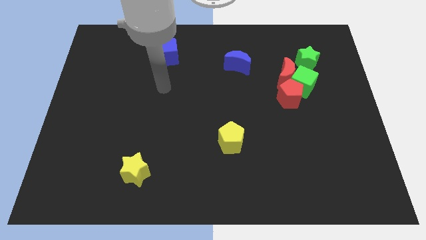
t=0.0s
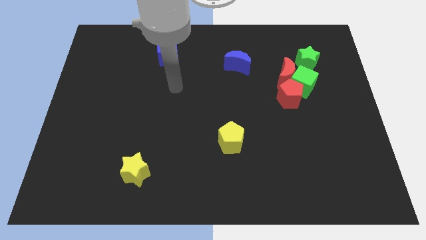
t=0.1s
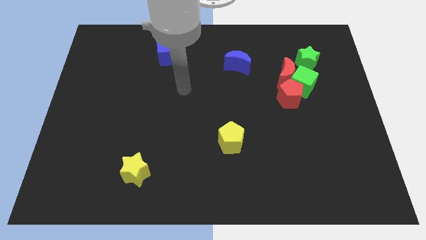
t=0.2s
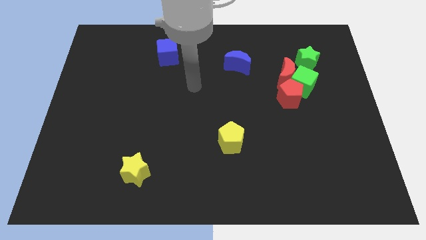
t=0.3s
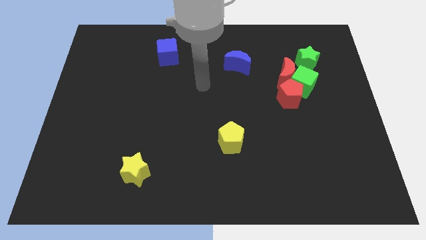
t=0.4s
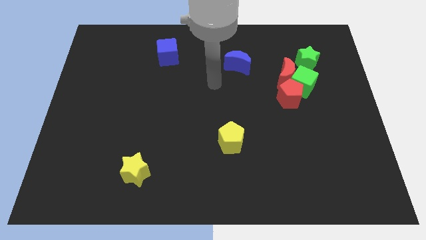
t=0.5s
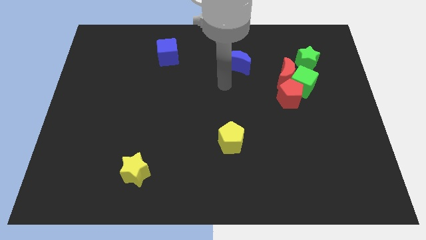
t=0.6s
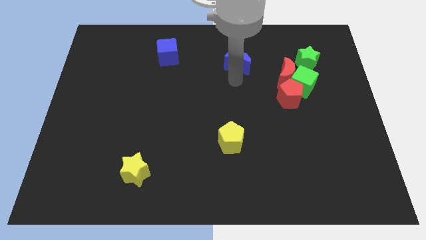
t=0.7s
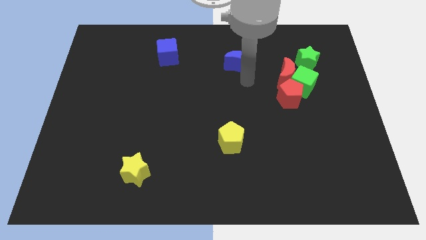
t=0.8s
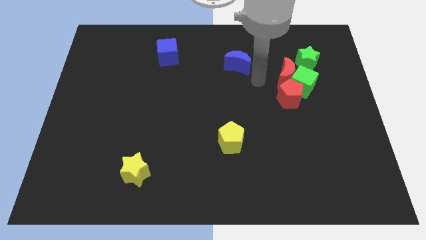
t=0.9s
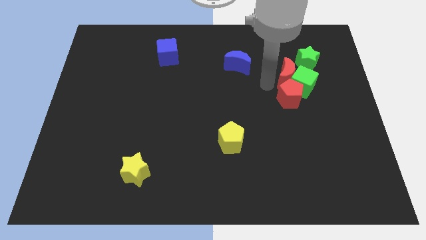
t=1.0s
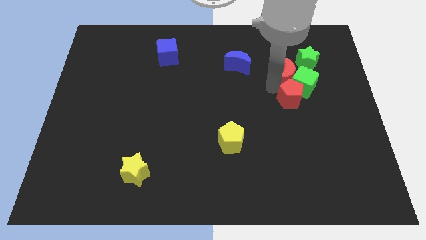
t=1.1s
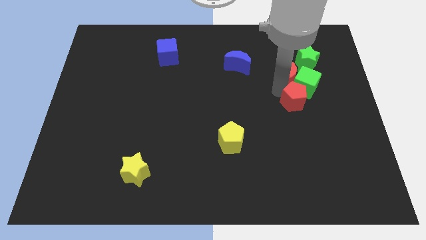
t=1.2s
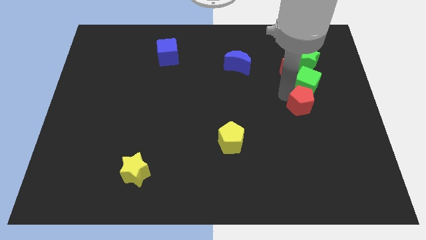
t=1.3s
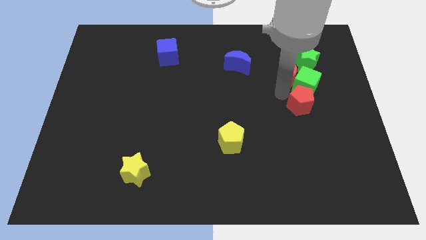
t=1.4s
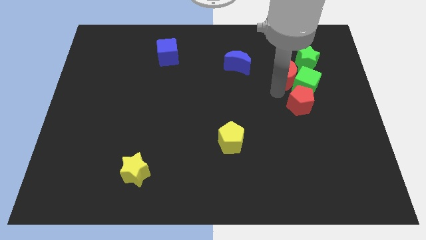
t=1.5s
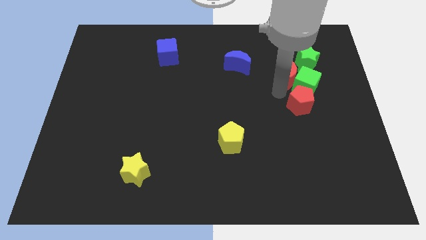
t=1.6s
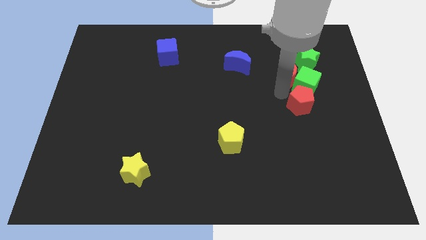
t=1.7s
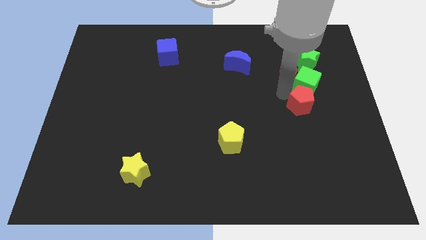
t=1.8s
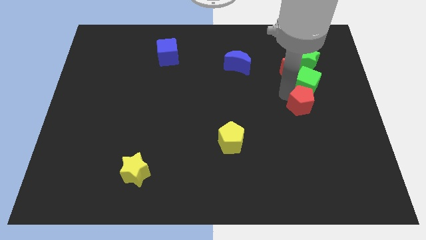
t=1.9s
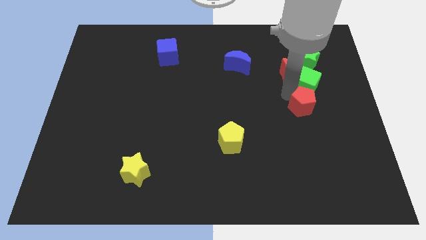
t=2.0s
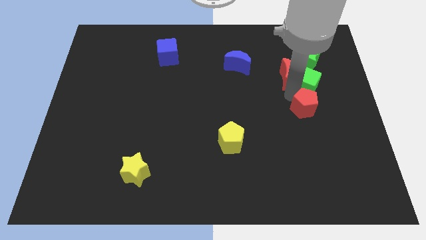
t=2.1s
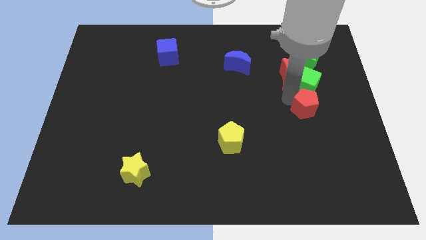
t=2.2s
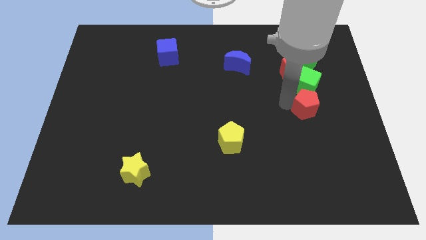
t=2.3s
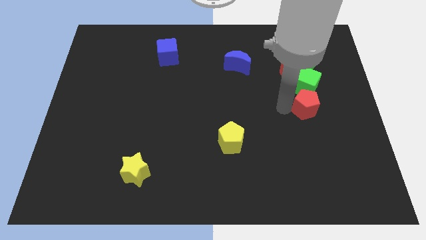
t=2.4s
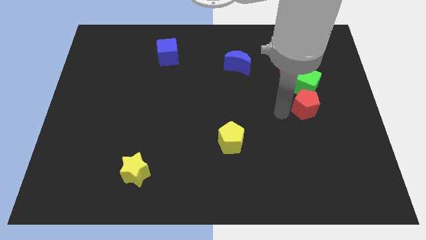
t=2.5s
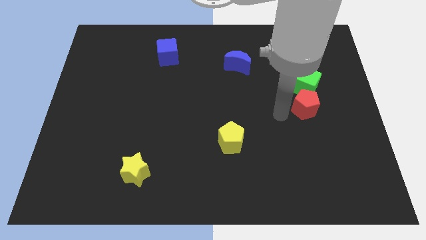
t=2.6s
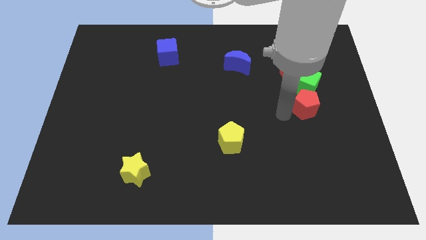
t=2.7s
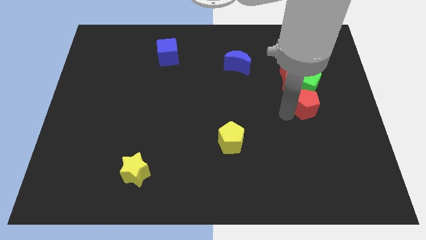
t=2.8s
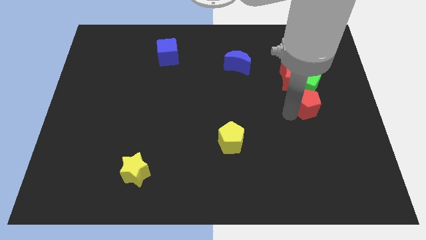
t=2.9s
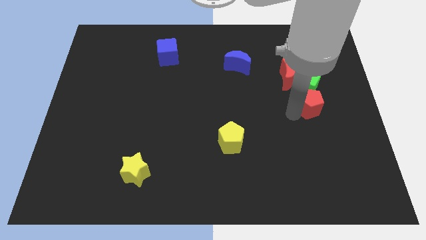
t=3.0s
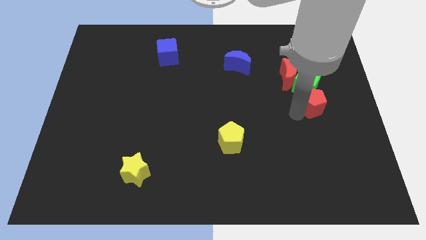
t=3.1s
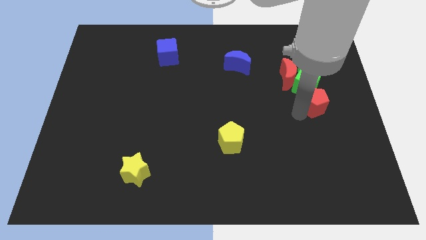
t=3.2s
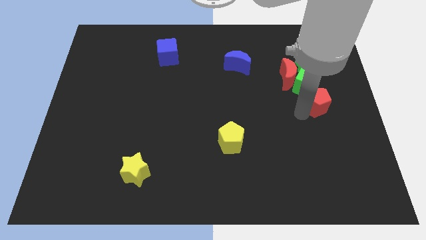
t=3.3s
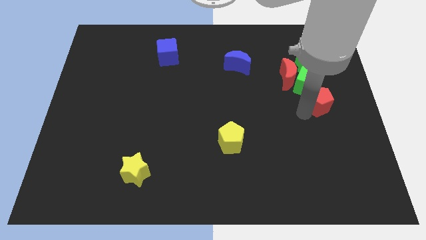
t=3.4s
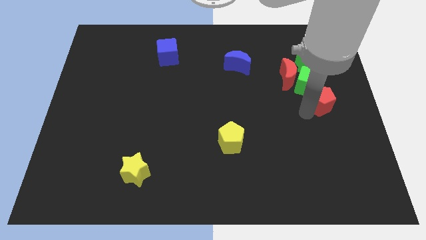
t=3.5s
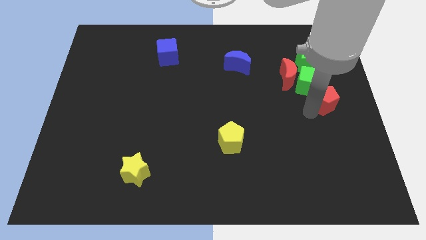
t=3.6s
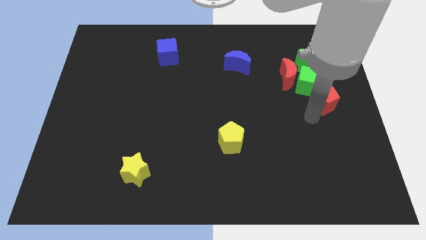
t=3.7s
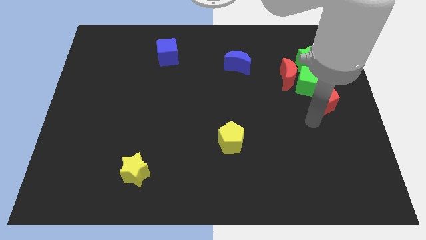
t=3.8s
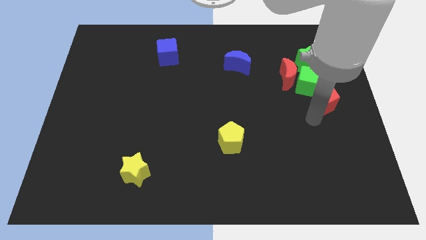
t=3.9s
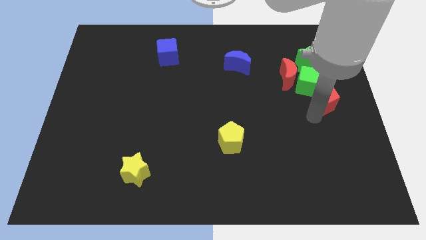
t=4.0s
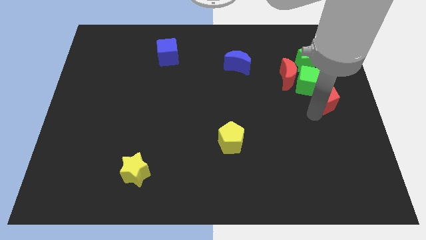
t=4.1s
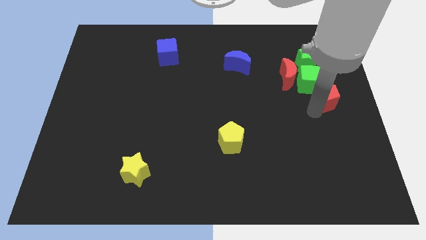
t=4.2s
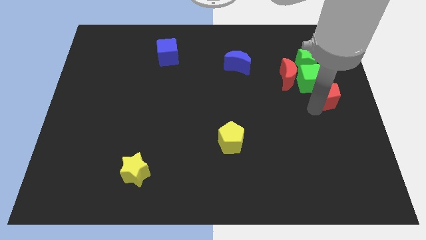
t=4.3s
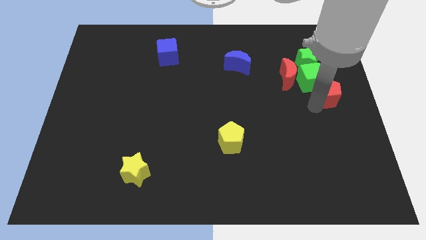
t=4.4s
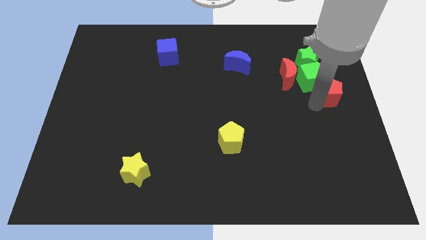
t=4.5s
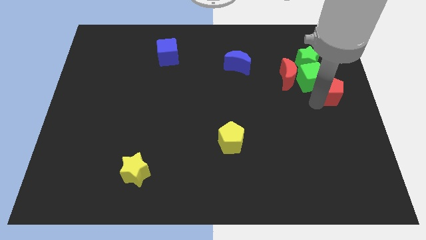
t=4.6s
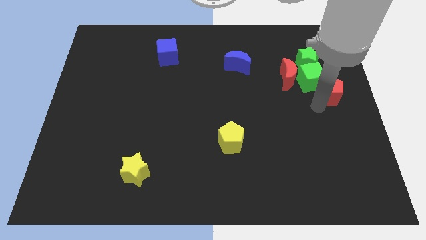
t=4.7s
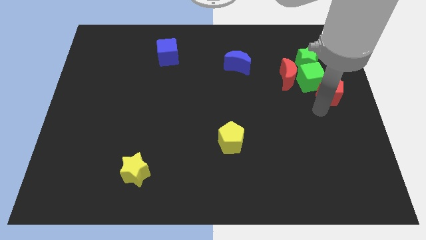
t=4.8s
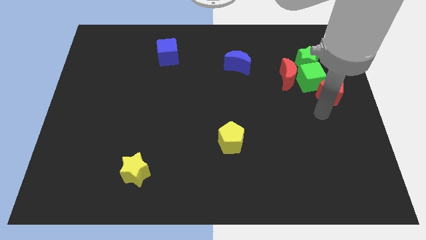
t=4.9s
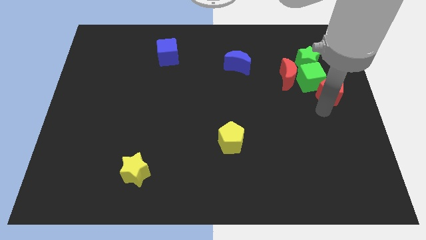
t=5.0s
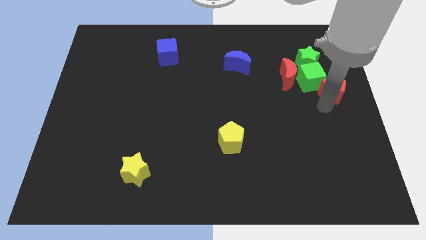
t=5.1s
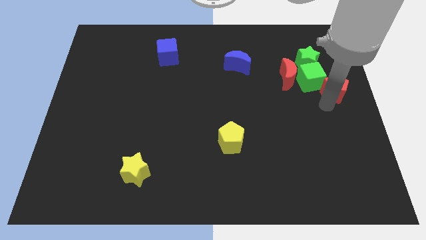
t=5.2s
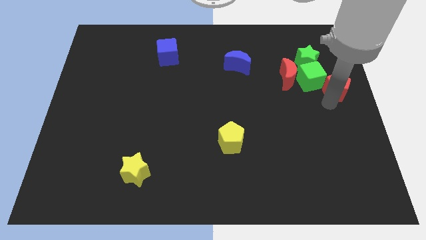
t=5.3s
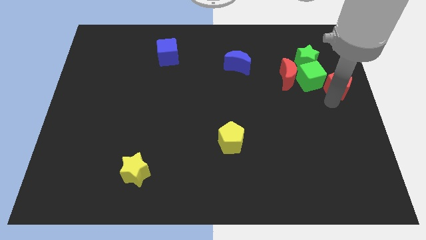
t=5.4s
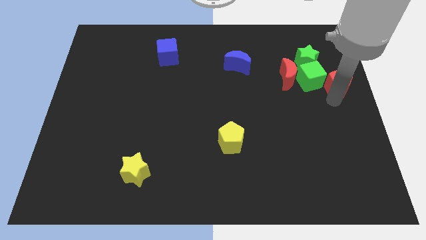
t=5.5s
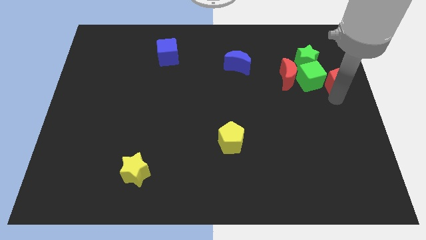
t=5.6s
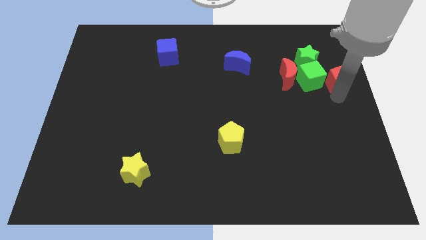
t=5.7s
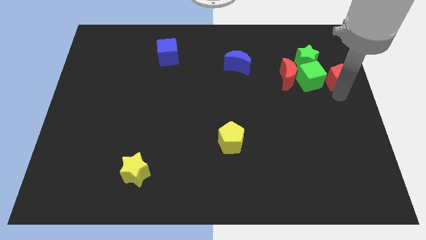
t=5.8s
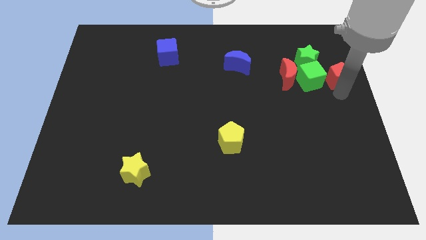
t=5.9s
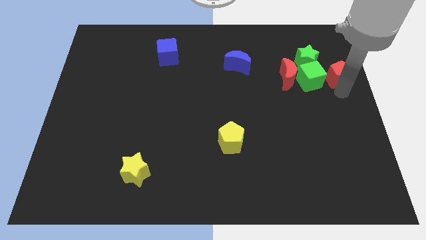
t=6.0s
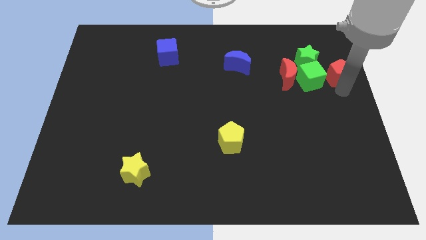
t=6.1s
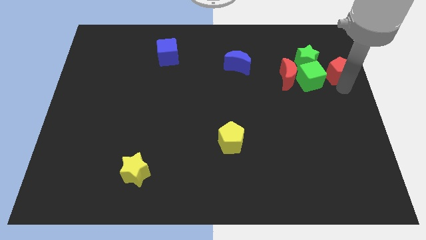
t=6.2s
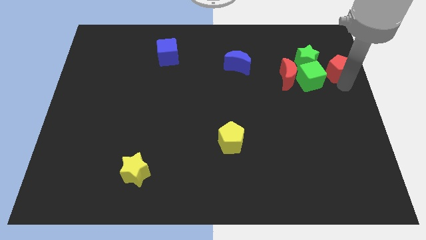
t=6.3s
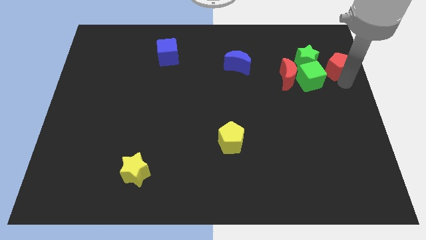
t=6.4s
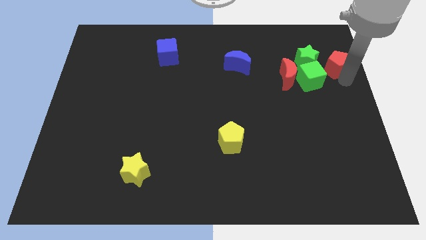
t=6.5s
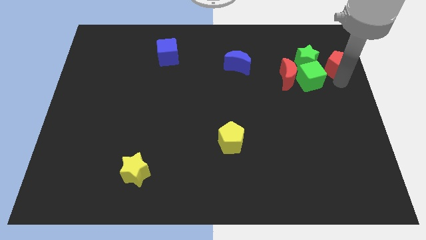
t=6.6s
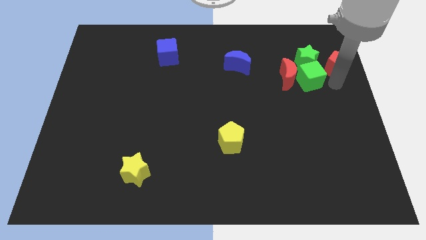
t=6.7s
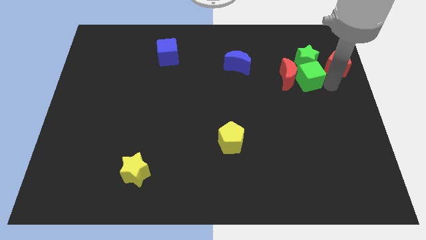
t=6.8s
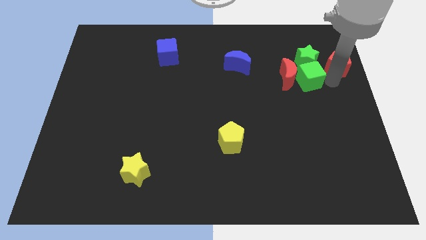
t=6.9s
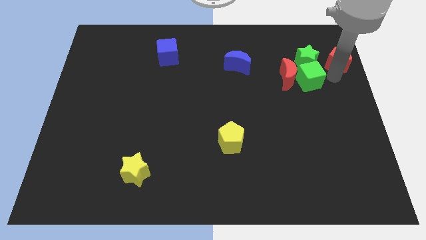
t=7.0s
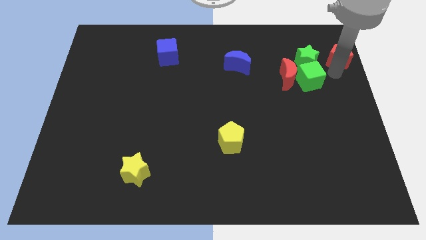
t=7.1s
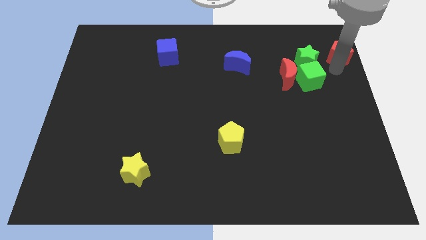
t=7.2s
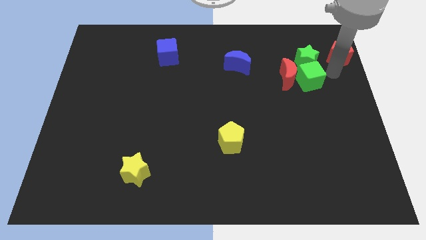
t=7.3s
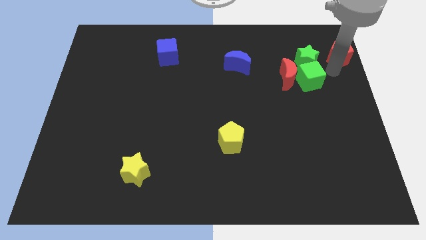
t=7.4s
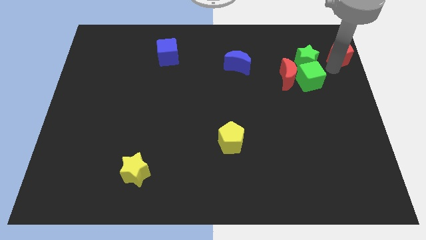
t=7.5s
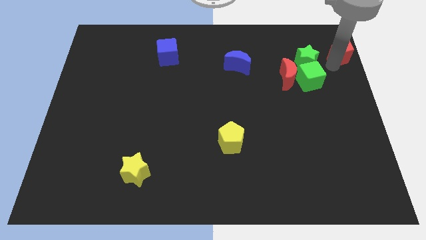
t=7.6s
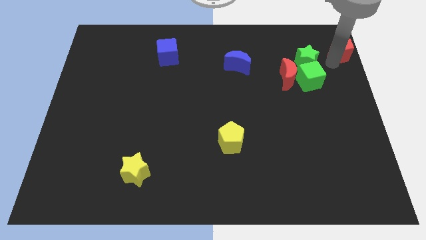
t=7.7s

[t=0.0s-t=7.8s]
move the red pentagon to the upper right corner
